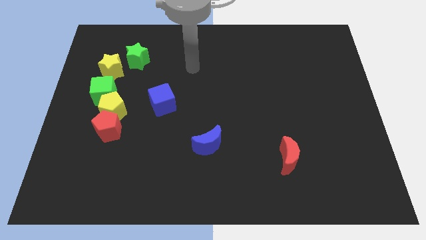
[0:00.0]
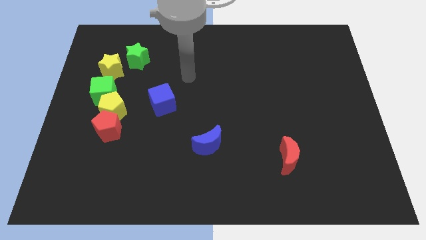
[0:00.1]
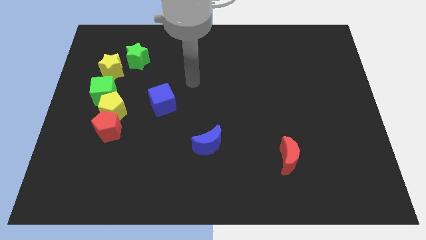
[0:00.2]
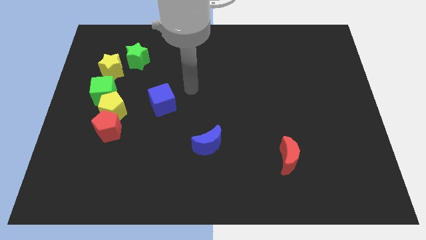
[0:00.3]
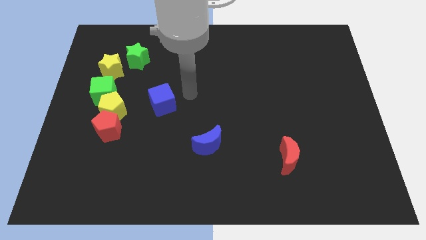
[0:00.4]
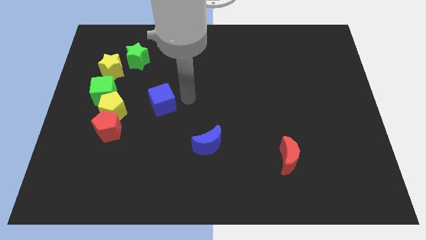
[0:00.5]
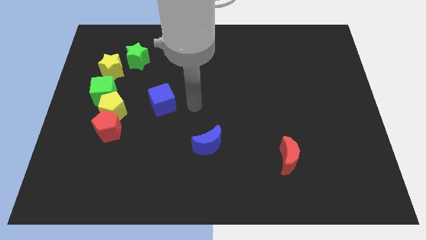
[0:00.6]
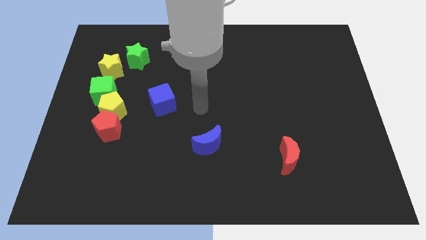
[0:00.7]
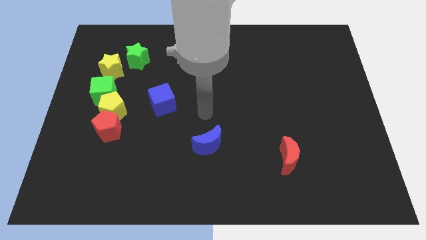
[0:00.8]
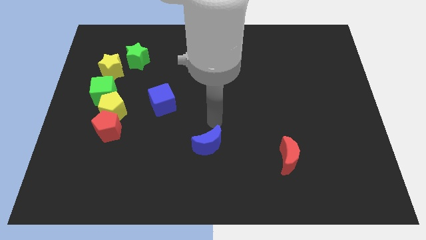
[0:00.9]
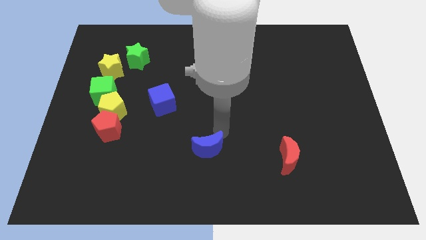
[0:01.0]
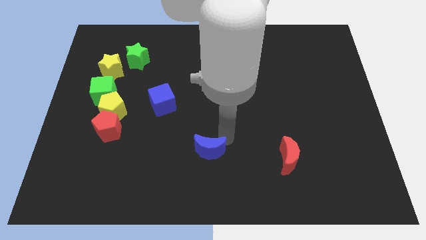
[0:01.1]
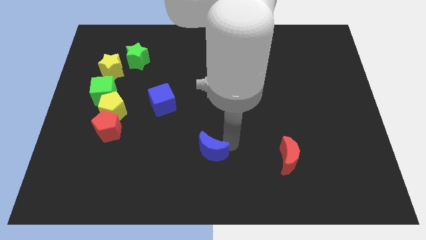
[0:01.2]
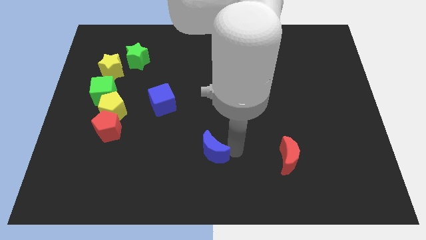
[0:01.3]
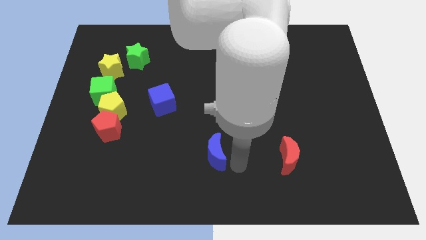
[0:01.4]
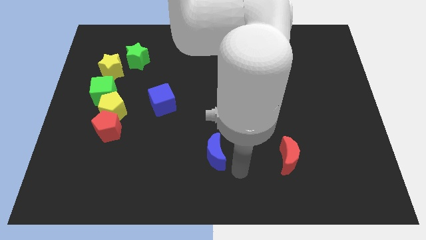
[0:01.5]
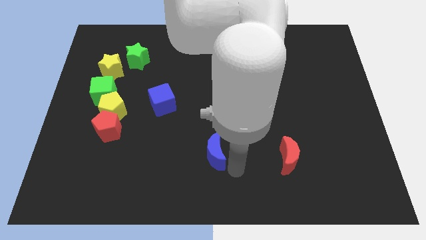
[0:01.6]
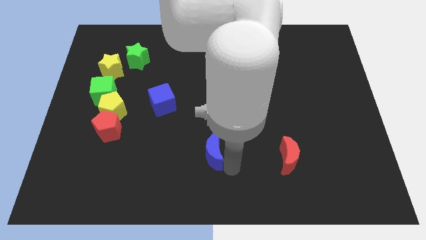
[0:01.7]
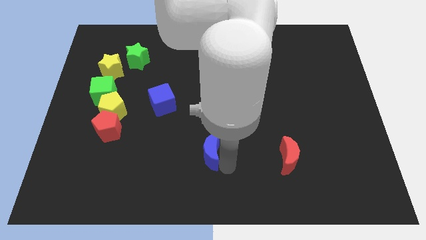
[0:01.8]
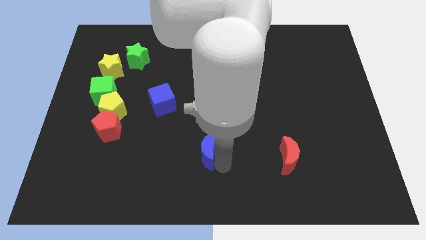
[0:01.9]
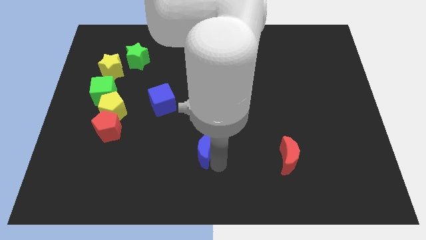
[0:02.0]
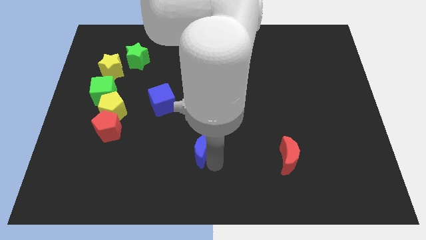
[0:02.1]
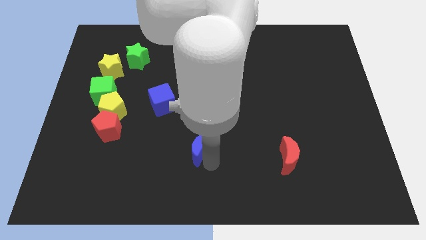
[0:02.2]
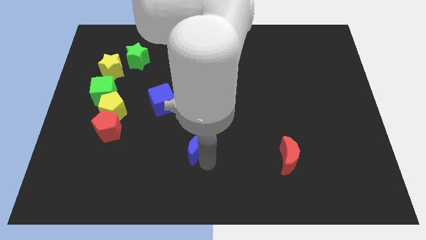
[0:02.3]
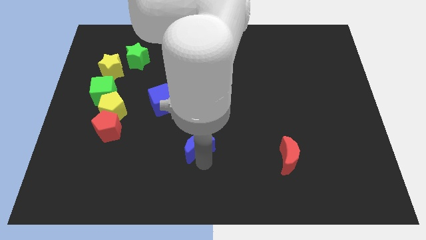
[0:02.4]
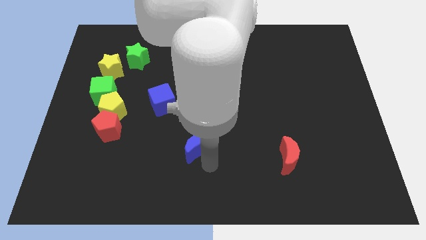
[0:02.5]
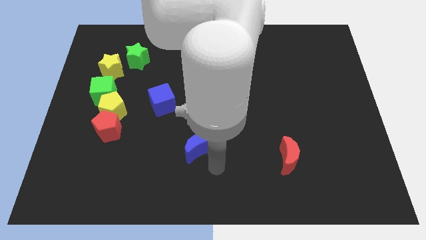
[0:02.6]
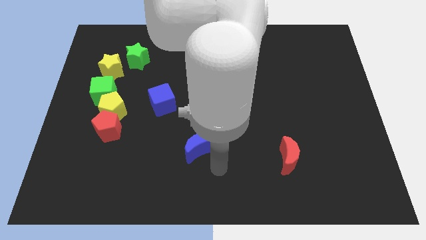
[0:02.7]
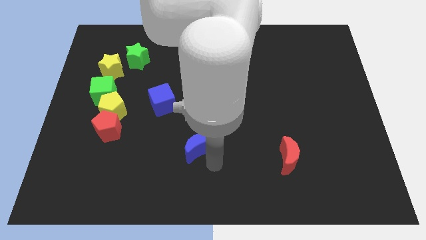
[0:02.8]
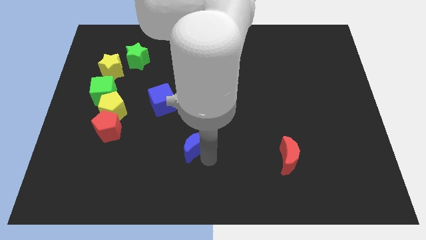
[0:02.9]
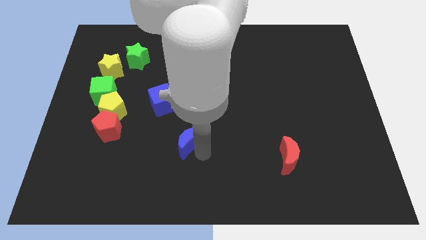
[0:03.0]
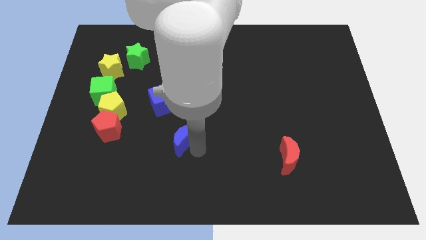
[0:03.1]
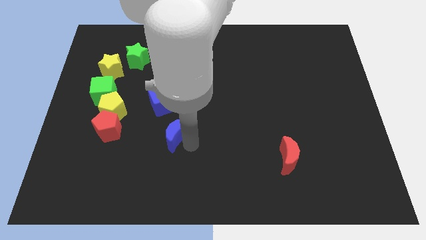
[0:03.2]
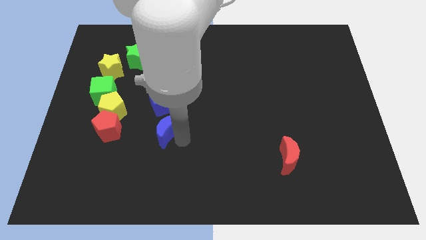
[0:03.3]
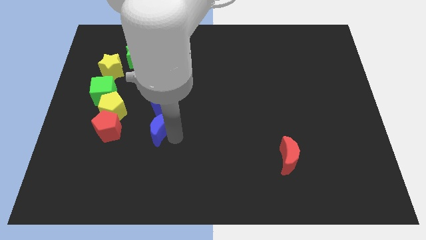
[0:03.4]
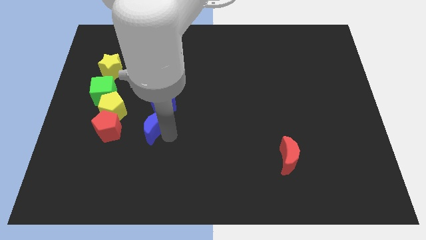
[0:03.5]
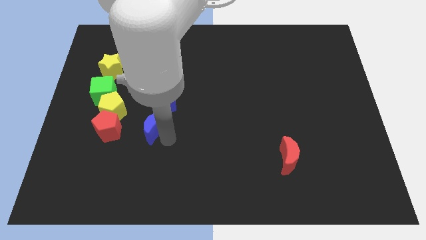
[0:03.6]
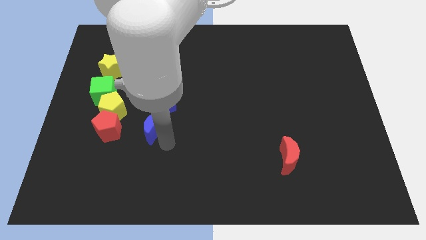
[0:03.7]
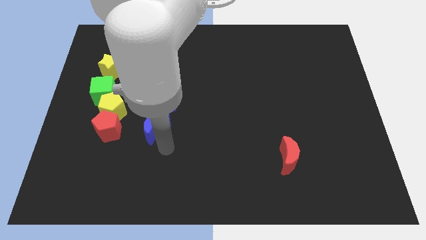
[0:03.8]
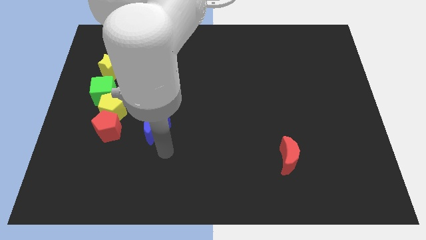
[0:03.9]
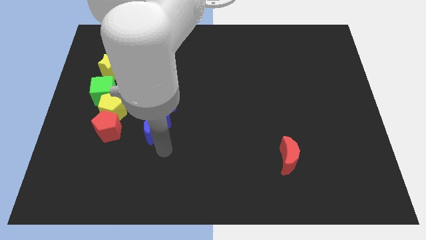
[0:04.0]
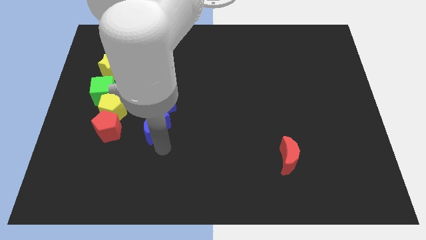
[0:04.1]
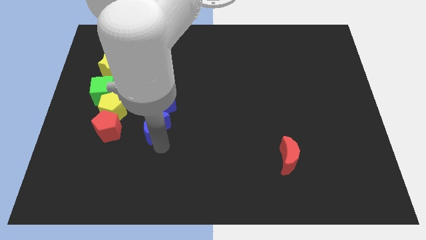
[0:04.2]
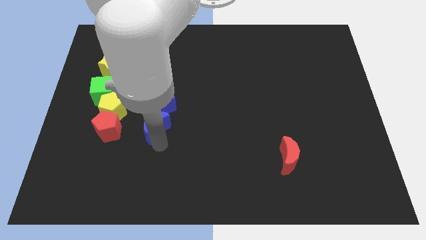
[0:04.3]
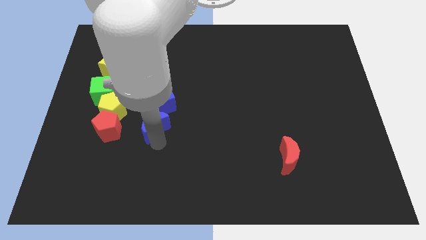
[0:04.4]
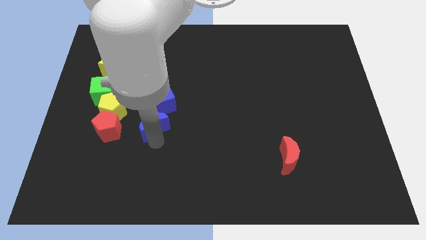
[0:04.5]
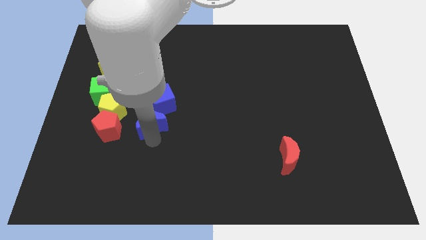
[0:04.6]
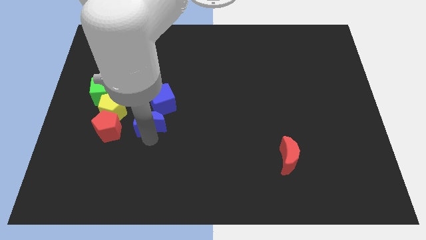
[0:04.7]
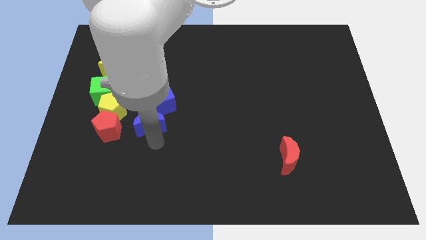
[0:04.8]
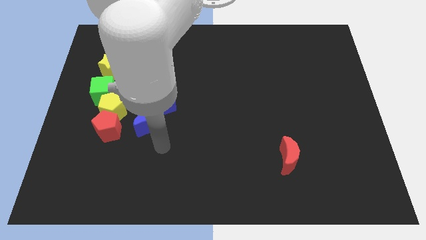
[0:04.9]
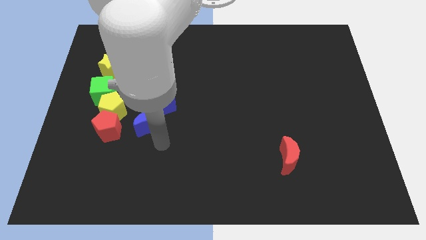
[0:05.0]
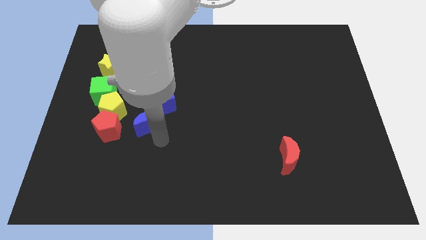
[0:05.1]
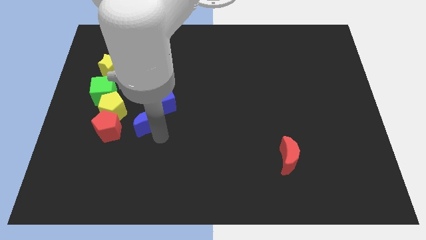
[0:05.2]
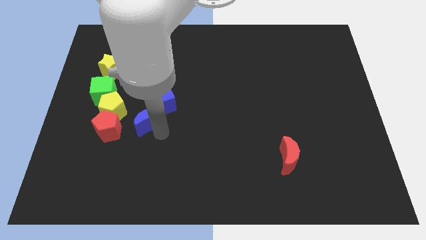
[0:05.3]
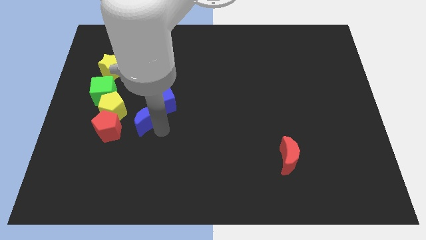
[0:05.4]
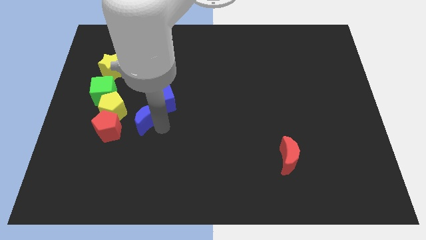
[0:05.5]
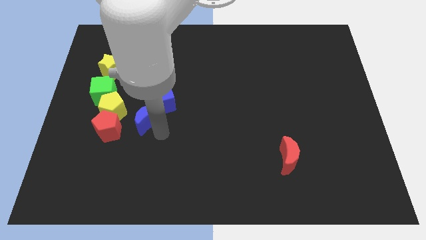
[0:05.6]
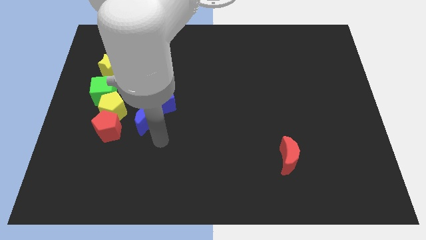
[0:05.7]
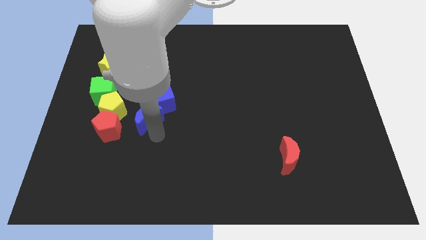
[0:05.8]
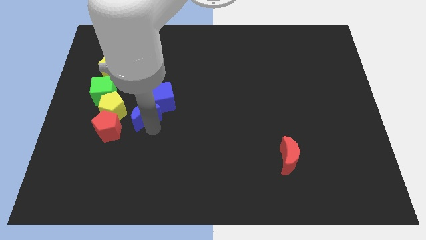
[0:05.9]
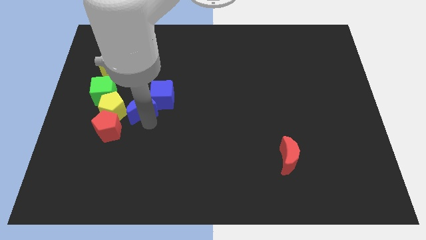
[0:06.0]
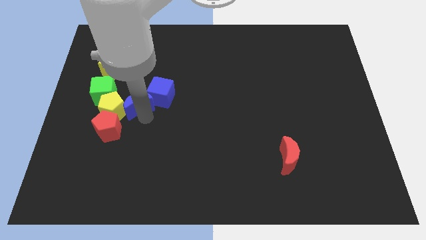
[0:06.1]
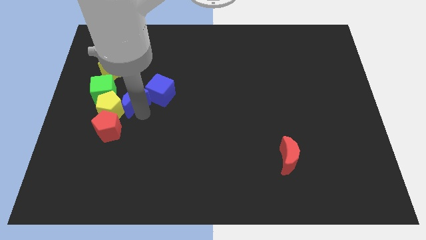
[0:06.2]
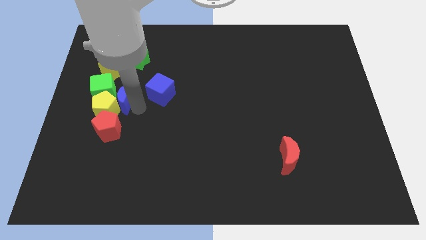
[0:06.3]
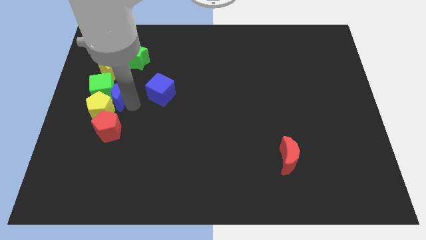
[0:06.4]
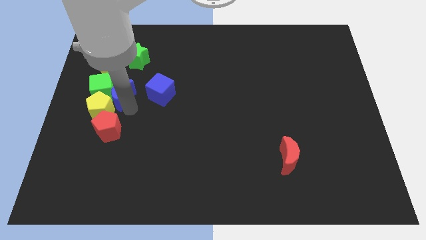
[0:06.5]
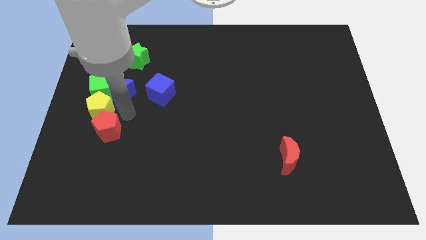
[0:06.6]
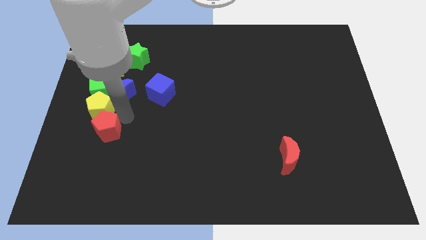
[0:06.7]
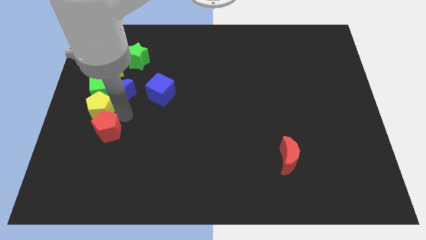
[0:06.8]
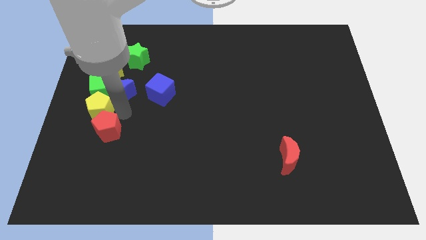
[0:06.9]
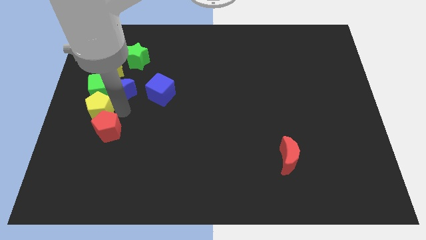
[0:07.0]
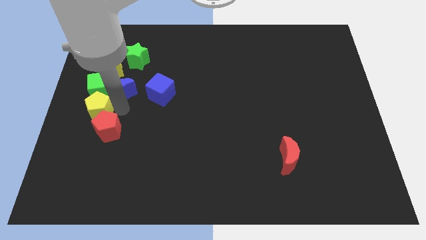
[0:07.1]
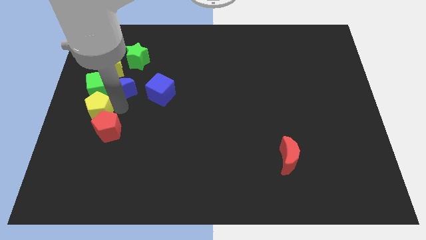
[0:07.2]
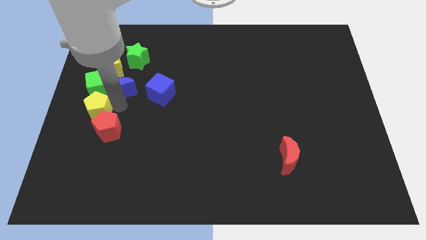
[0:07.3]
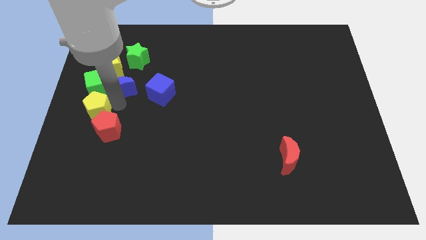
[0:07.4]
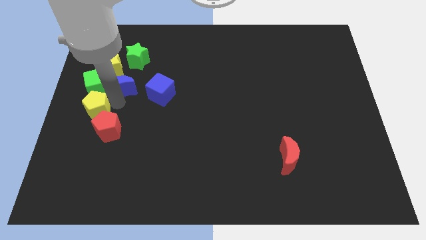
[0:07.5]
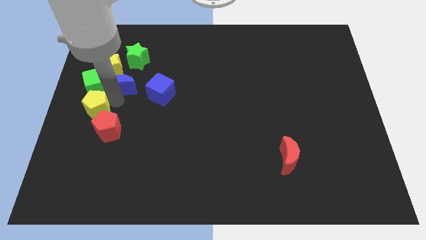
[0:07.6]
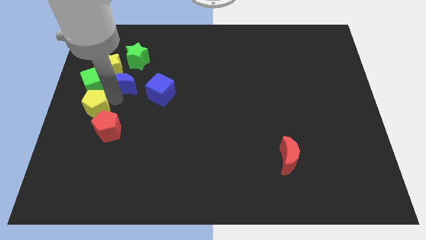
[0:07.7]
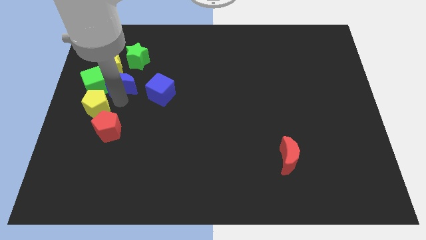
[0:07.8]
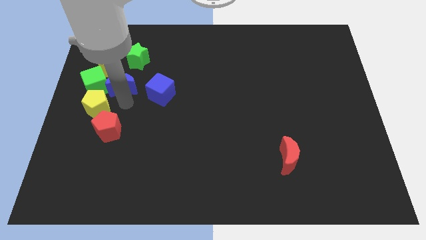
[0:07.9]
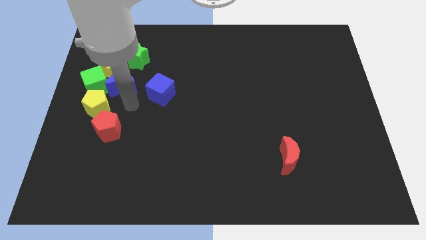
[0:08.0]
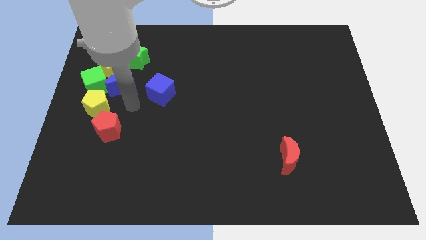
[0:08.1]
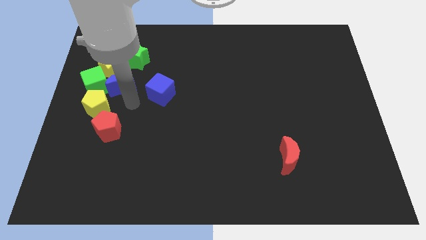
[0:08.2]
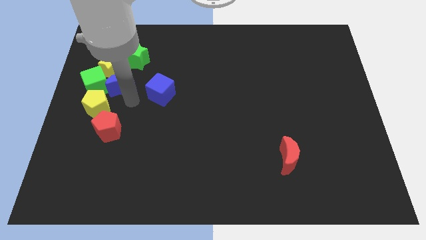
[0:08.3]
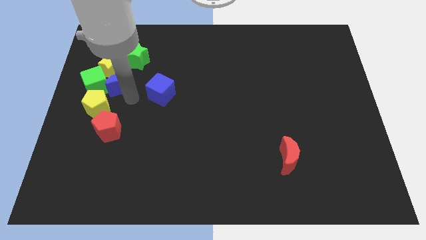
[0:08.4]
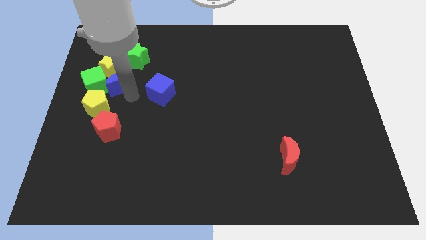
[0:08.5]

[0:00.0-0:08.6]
slide the blue moon towards the yellow star
